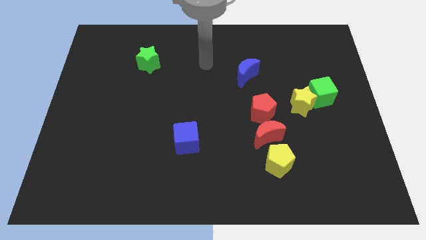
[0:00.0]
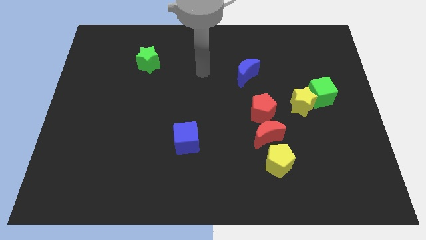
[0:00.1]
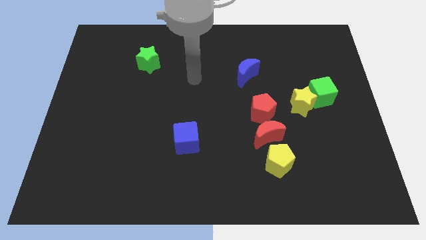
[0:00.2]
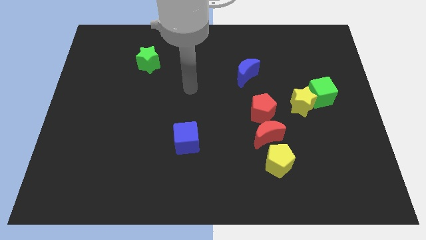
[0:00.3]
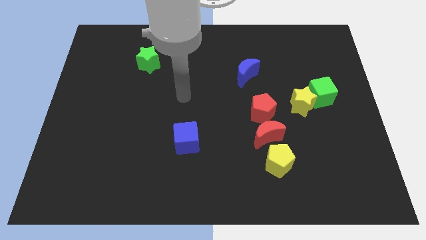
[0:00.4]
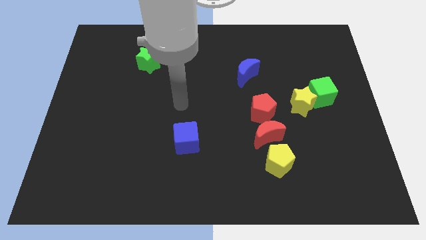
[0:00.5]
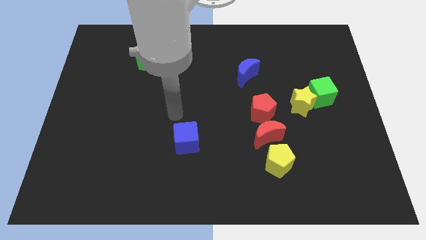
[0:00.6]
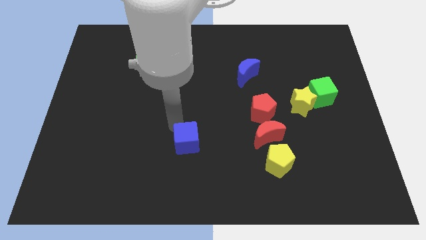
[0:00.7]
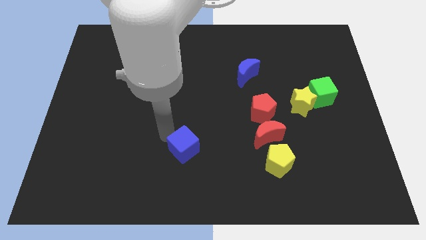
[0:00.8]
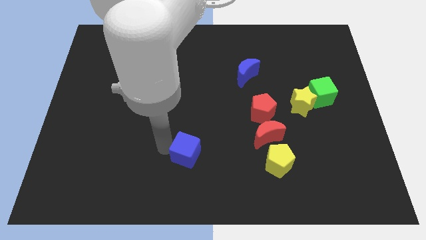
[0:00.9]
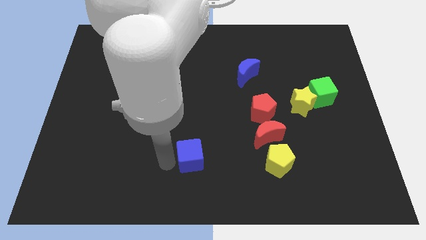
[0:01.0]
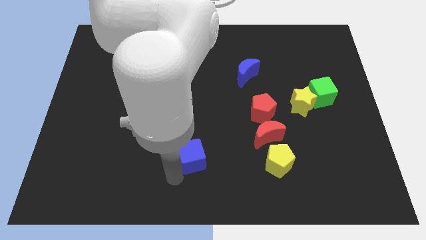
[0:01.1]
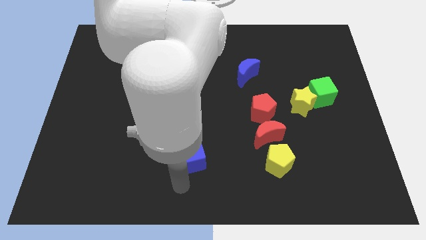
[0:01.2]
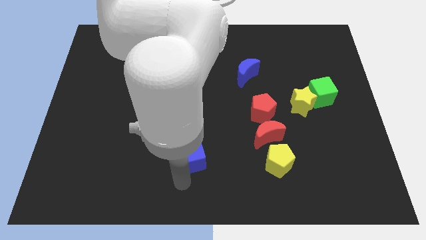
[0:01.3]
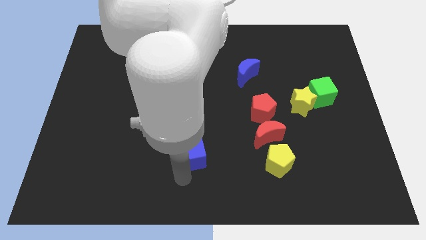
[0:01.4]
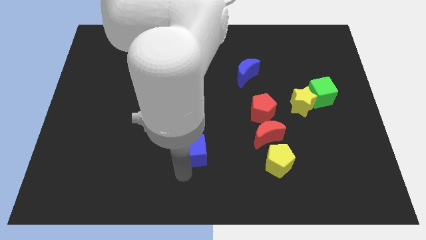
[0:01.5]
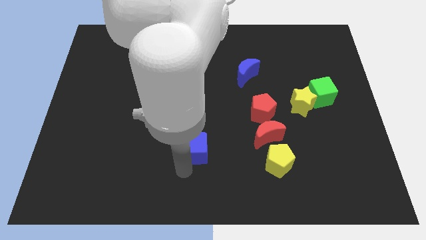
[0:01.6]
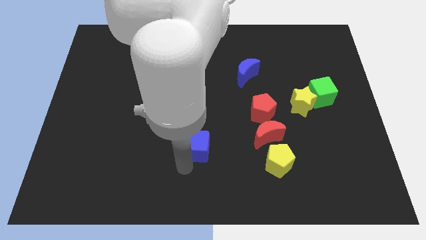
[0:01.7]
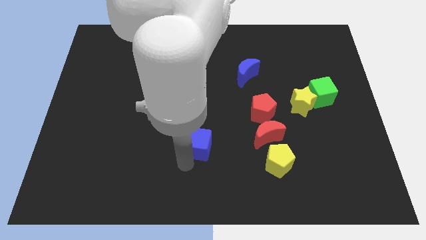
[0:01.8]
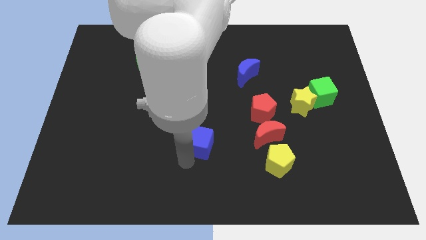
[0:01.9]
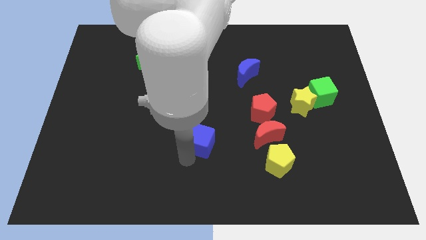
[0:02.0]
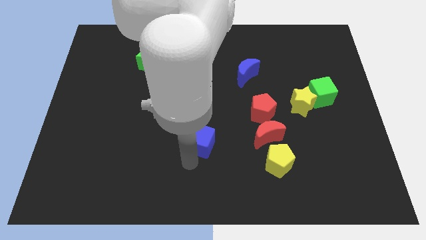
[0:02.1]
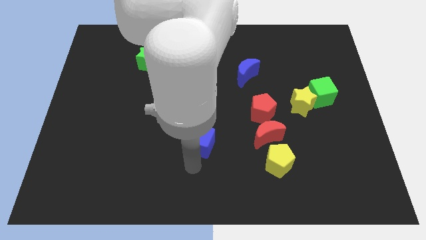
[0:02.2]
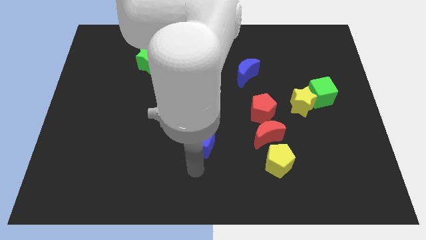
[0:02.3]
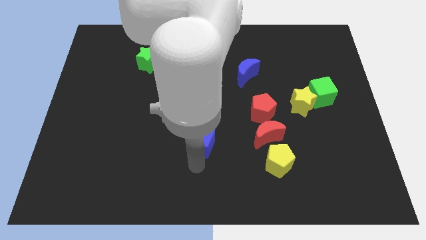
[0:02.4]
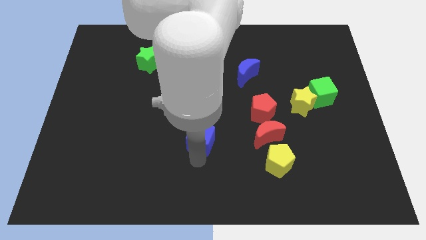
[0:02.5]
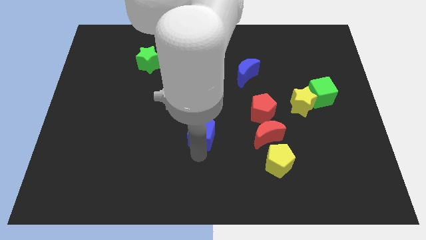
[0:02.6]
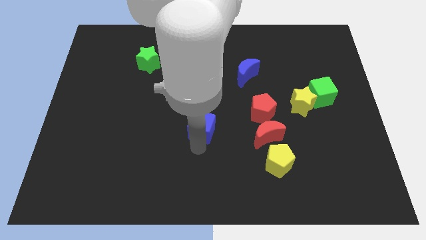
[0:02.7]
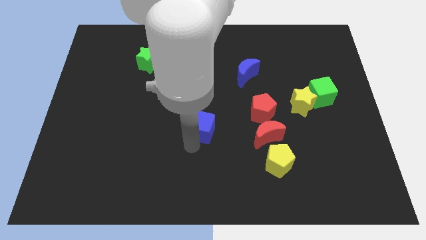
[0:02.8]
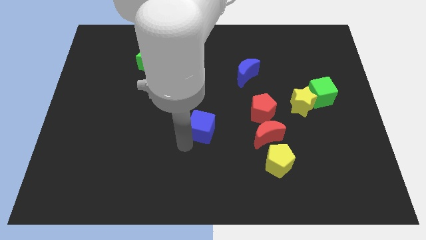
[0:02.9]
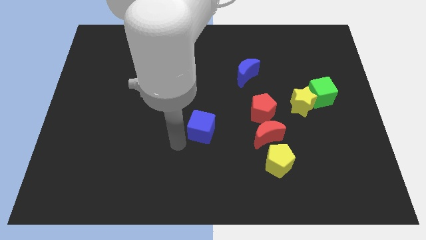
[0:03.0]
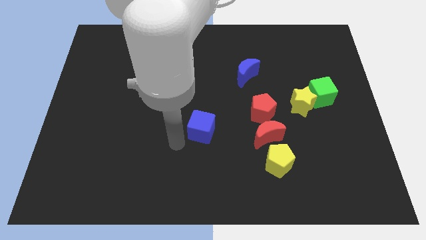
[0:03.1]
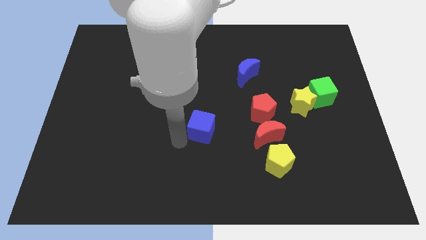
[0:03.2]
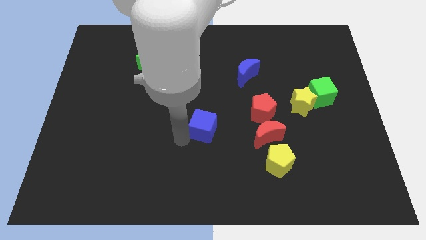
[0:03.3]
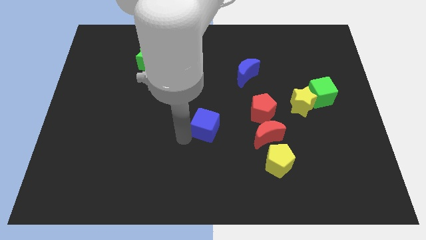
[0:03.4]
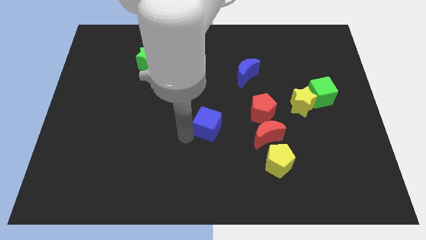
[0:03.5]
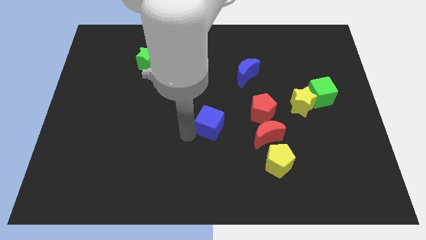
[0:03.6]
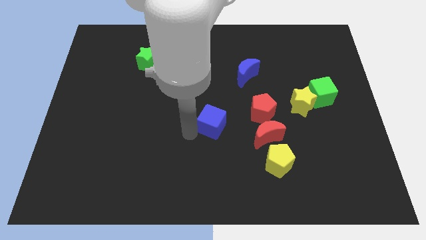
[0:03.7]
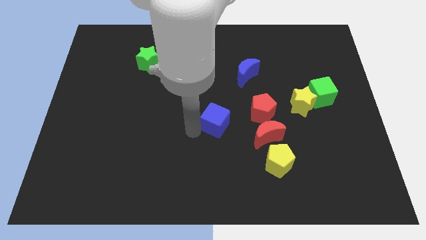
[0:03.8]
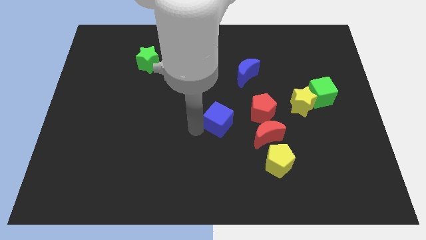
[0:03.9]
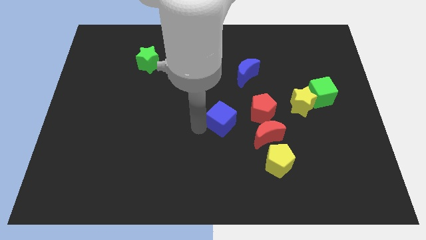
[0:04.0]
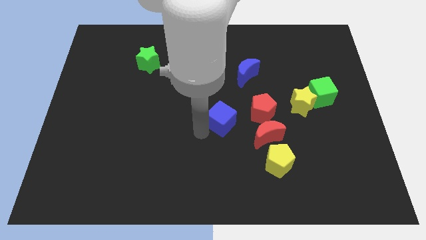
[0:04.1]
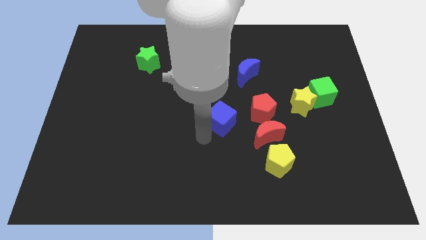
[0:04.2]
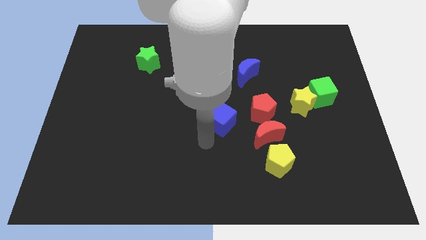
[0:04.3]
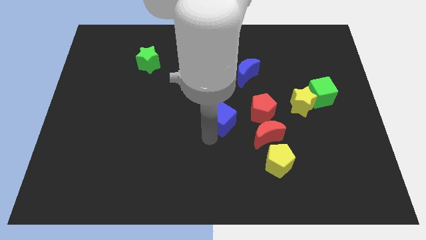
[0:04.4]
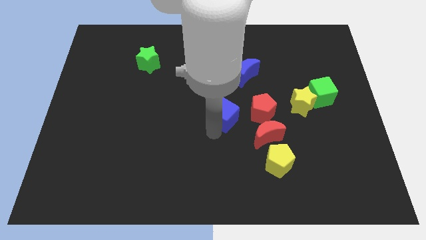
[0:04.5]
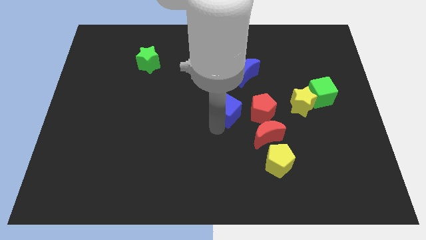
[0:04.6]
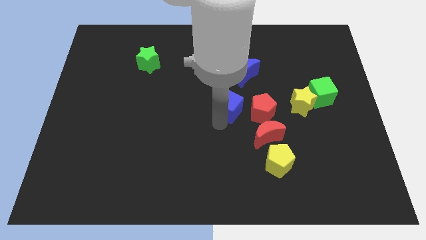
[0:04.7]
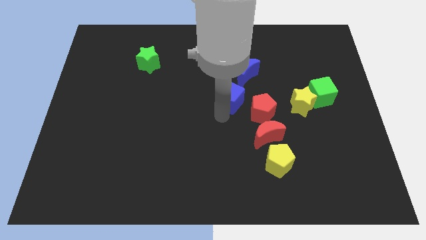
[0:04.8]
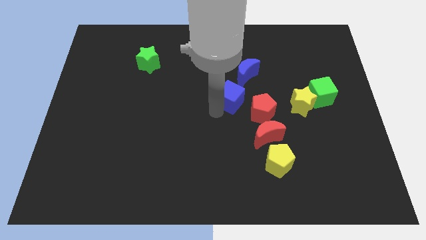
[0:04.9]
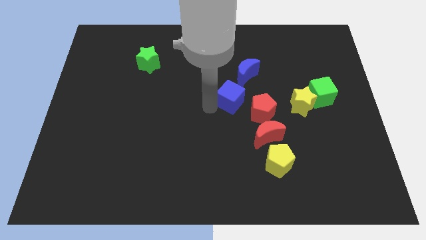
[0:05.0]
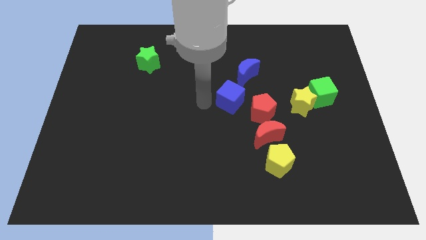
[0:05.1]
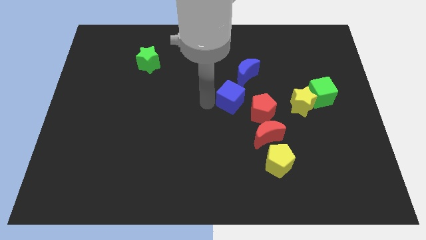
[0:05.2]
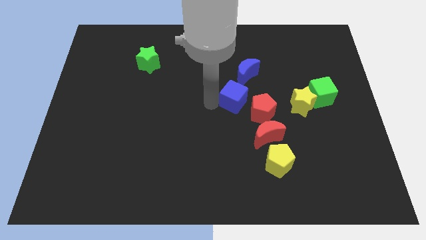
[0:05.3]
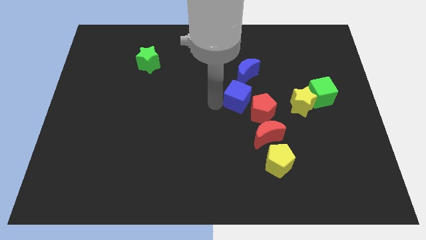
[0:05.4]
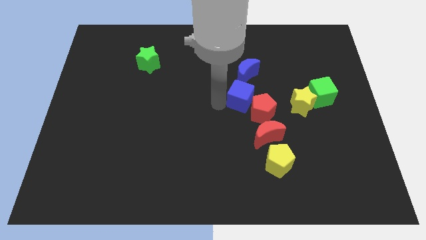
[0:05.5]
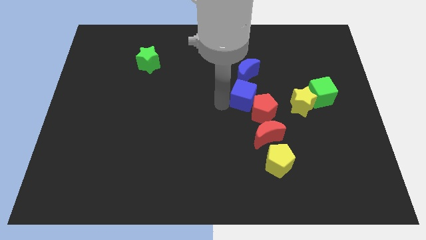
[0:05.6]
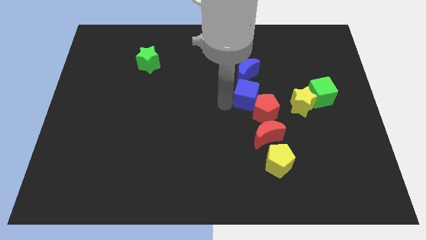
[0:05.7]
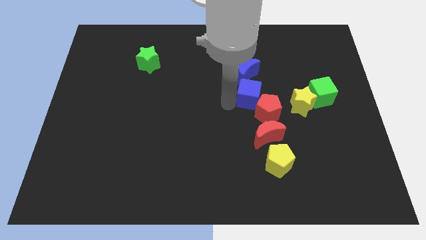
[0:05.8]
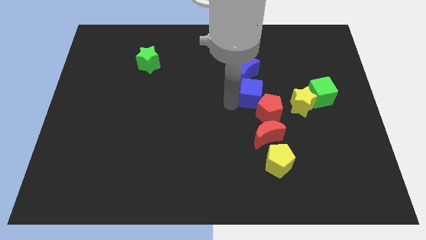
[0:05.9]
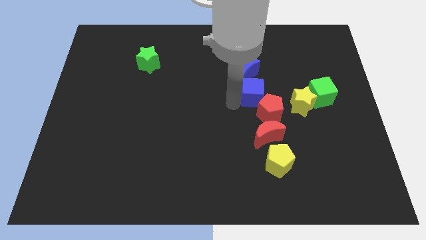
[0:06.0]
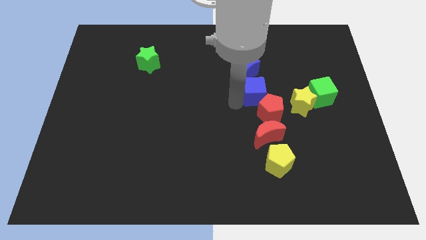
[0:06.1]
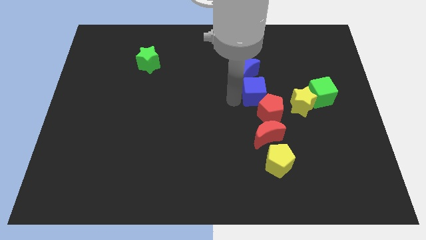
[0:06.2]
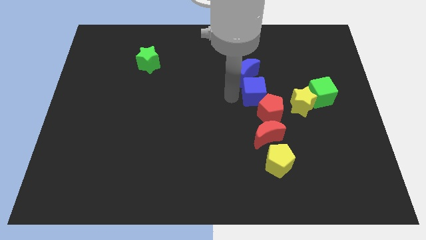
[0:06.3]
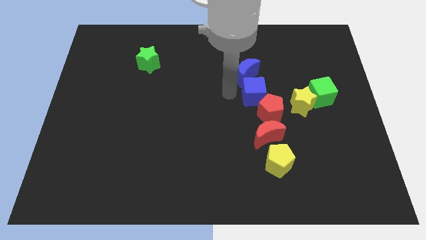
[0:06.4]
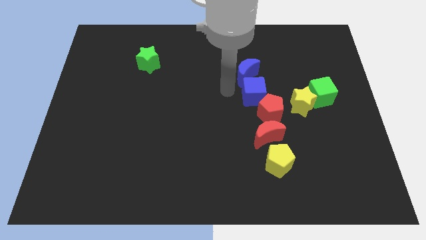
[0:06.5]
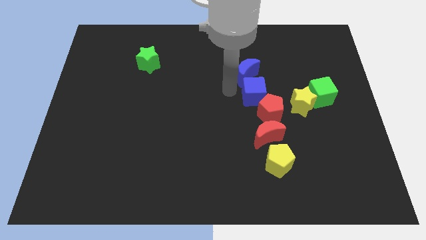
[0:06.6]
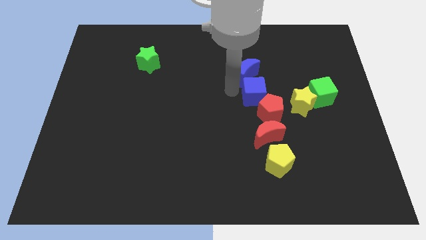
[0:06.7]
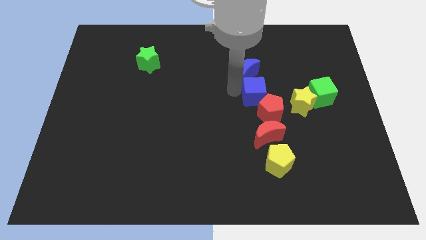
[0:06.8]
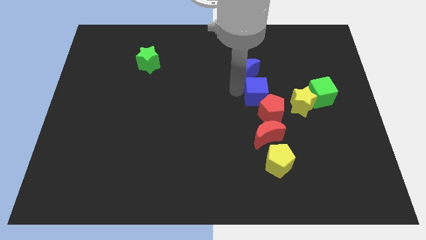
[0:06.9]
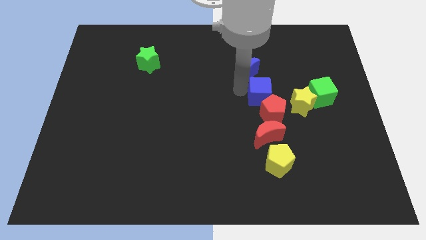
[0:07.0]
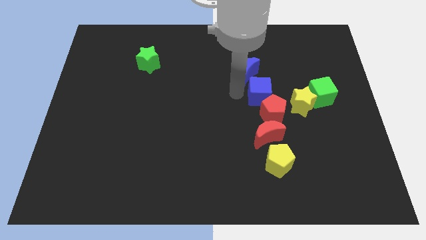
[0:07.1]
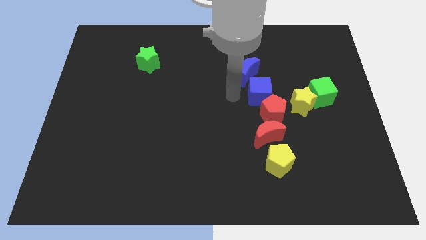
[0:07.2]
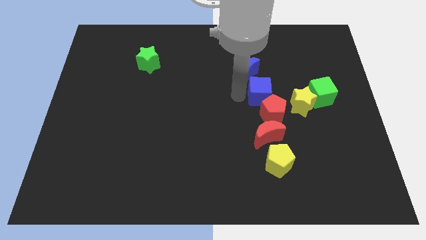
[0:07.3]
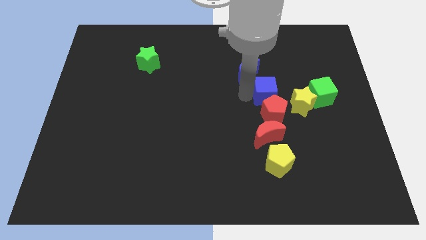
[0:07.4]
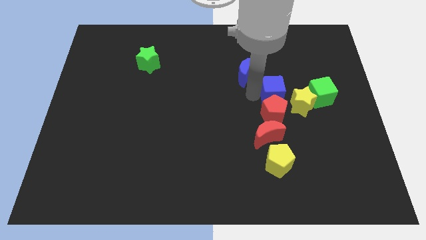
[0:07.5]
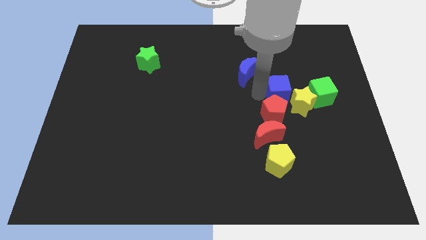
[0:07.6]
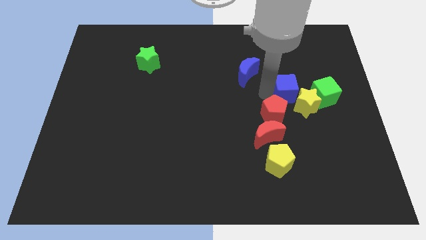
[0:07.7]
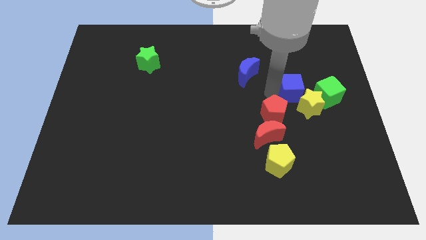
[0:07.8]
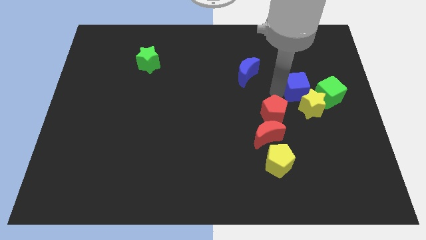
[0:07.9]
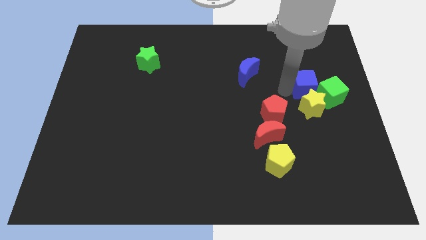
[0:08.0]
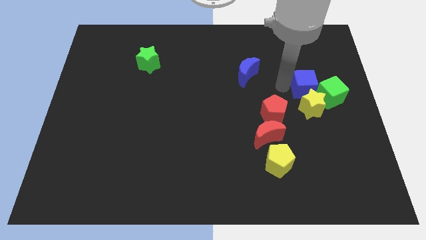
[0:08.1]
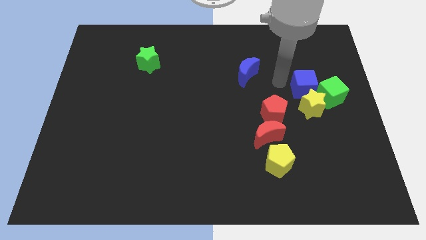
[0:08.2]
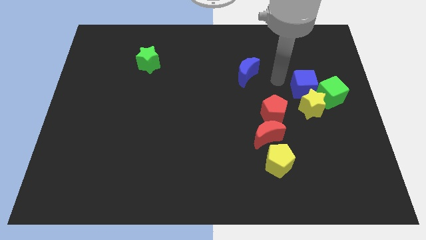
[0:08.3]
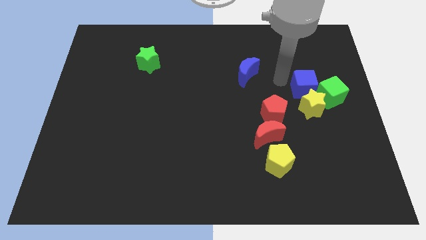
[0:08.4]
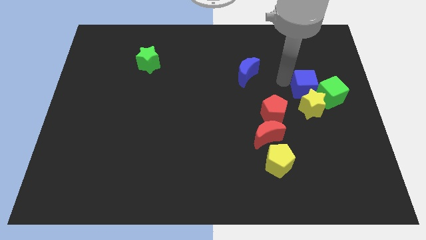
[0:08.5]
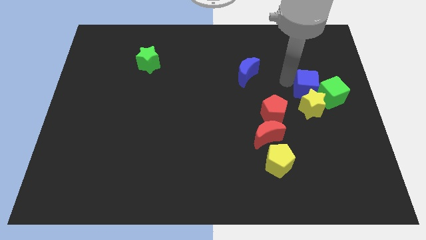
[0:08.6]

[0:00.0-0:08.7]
move the blue cube next to the green cube
